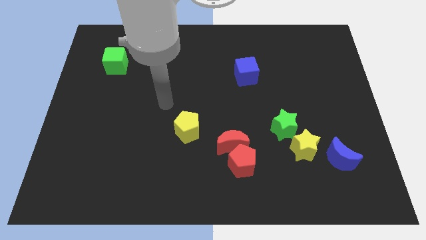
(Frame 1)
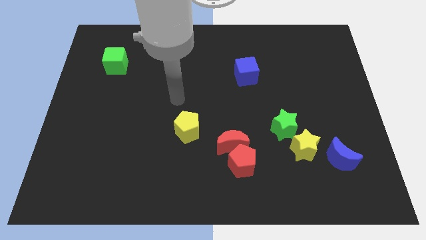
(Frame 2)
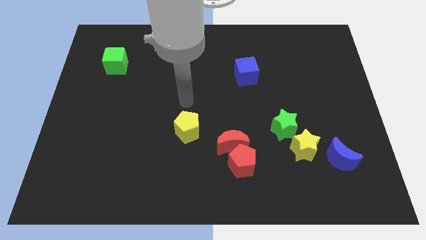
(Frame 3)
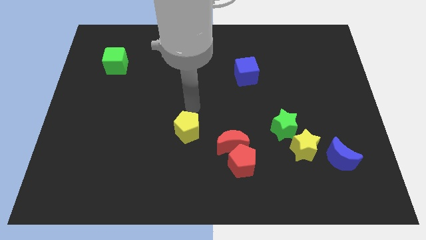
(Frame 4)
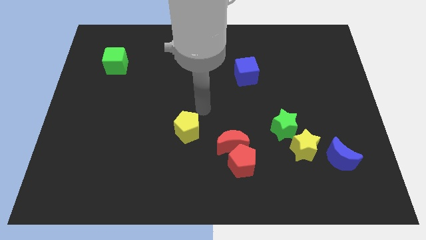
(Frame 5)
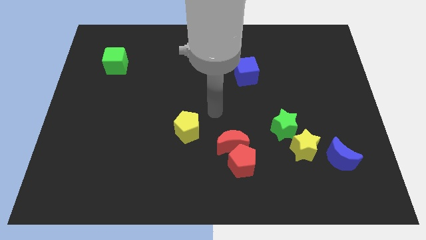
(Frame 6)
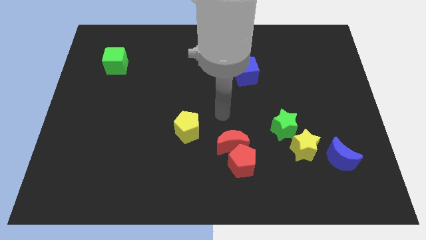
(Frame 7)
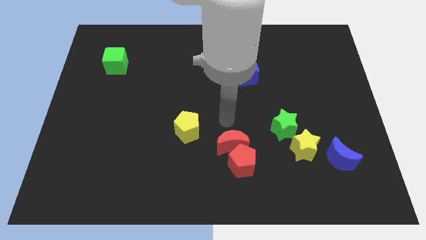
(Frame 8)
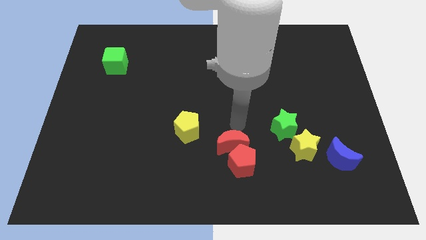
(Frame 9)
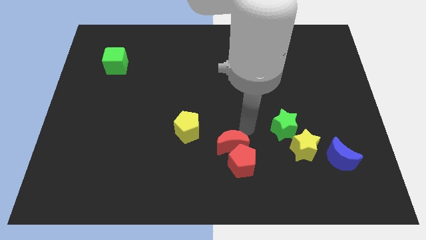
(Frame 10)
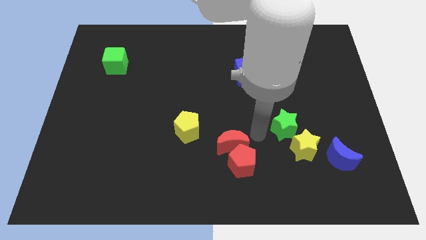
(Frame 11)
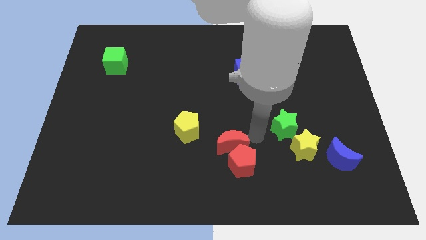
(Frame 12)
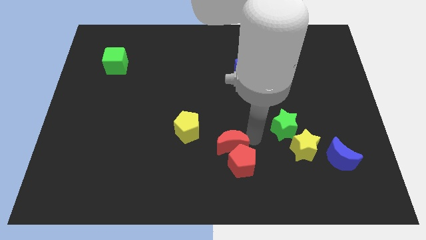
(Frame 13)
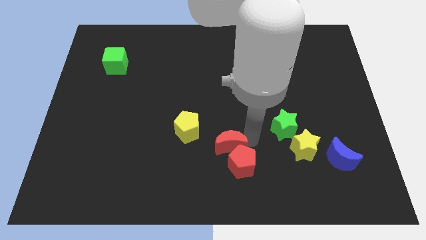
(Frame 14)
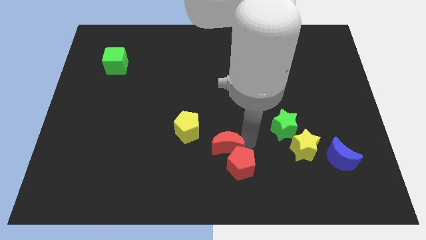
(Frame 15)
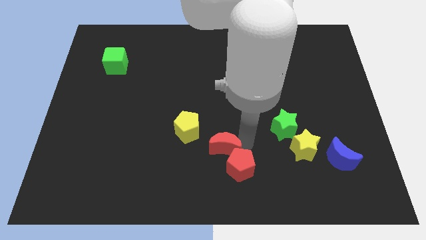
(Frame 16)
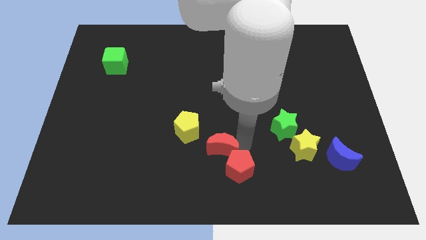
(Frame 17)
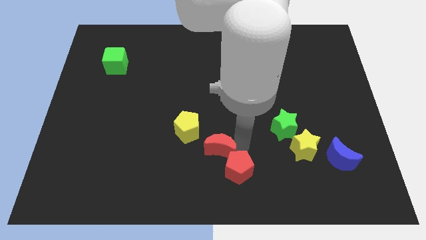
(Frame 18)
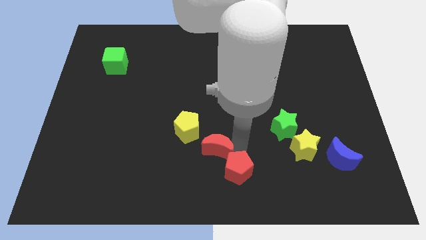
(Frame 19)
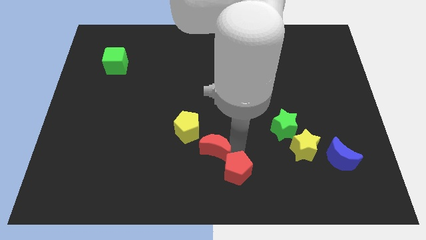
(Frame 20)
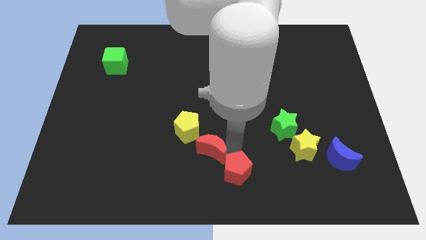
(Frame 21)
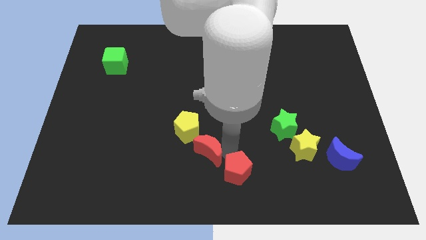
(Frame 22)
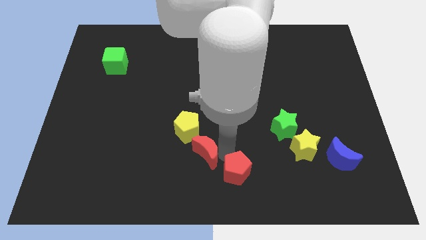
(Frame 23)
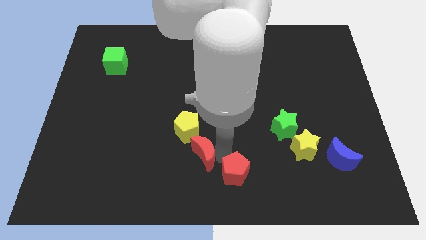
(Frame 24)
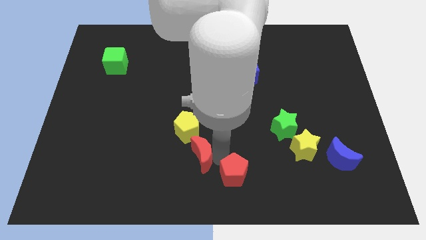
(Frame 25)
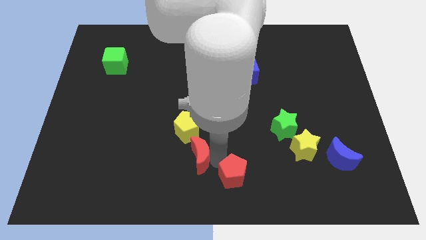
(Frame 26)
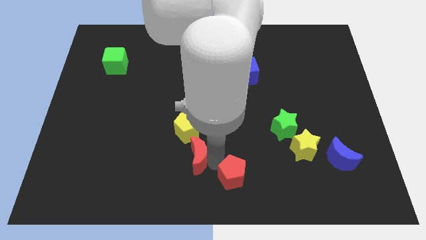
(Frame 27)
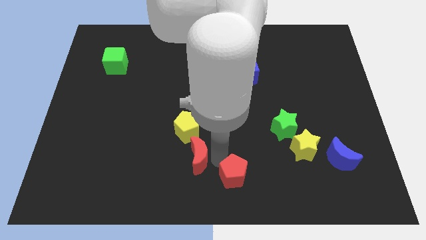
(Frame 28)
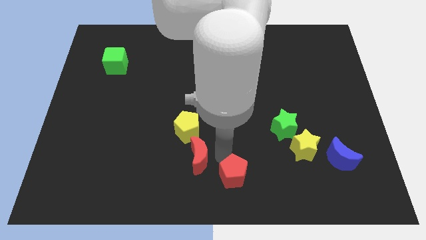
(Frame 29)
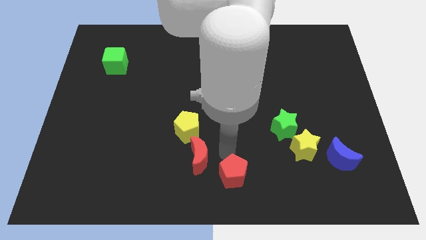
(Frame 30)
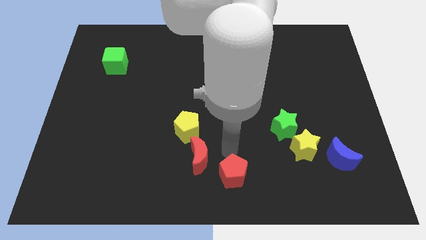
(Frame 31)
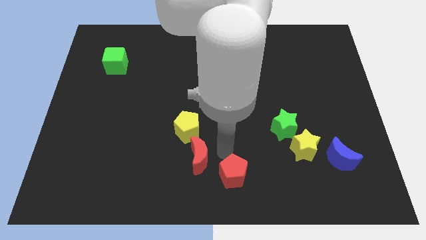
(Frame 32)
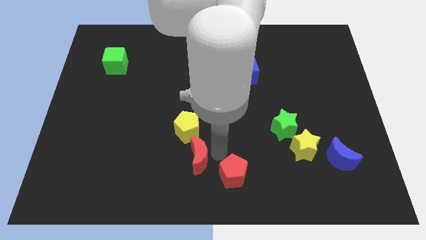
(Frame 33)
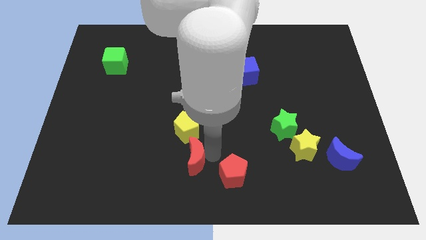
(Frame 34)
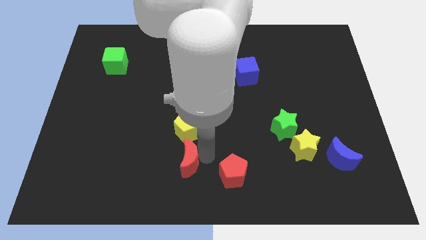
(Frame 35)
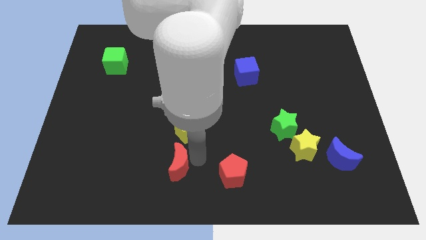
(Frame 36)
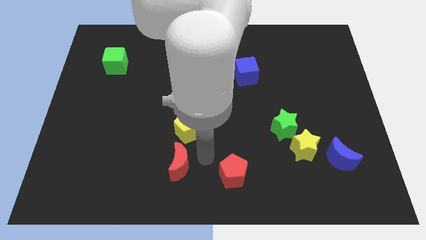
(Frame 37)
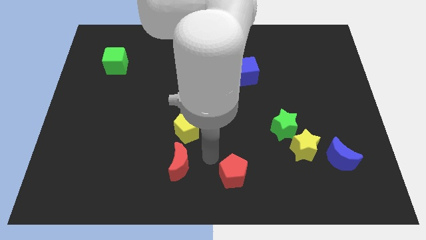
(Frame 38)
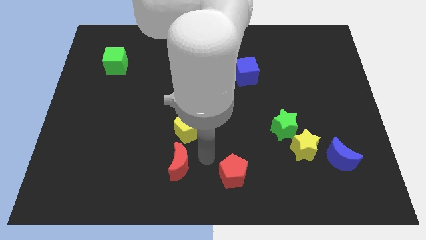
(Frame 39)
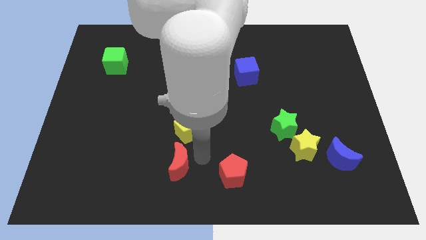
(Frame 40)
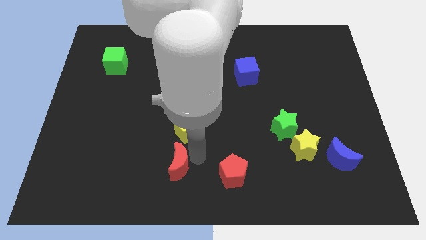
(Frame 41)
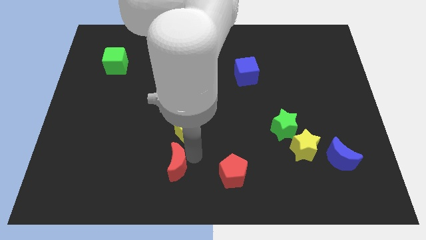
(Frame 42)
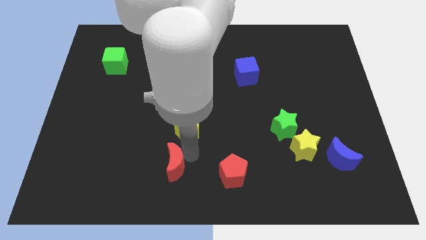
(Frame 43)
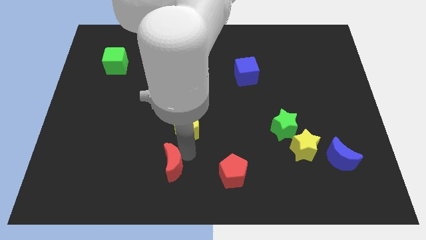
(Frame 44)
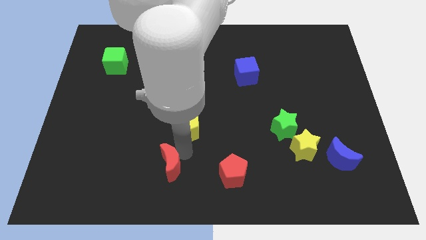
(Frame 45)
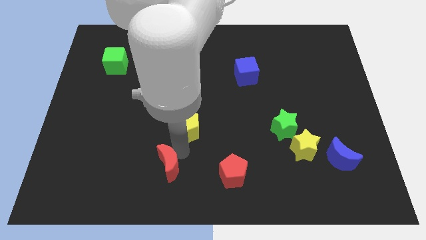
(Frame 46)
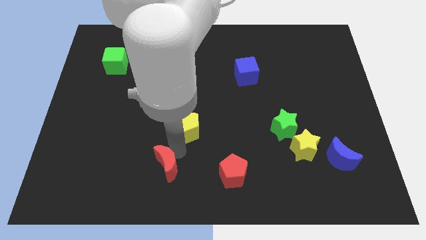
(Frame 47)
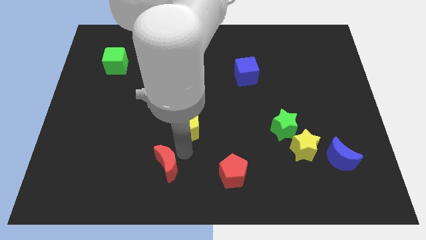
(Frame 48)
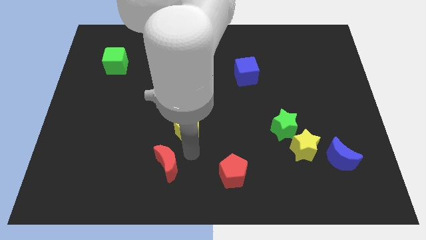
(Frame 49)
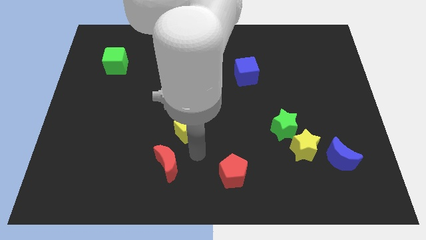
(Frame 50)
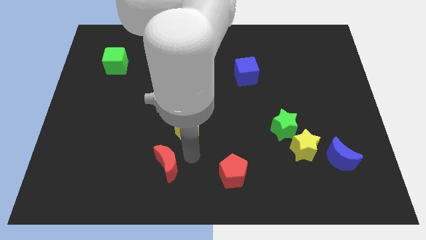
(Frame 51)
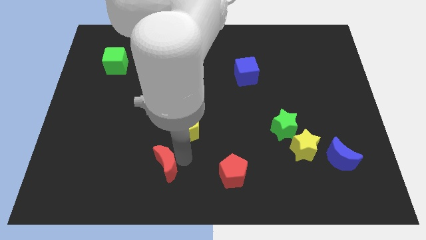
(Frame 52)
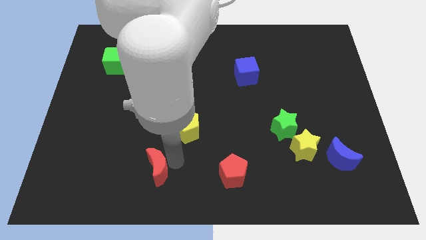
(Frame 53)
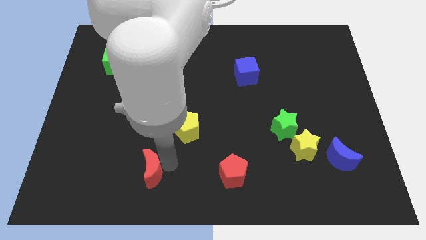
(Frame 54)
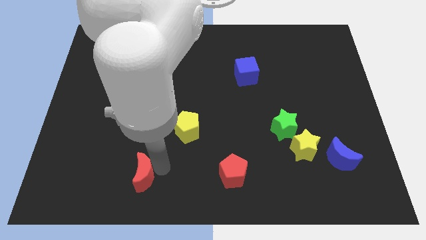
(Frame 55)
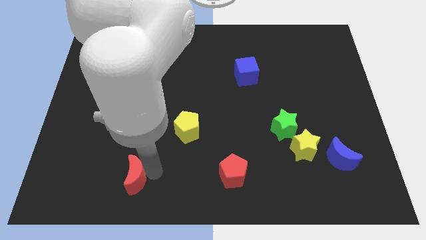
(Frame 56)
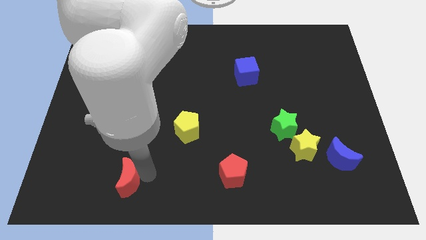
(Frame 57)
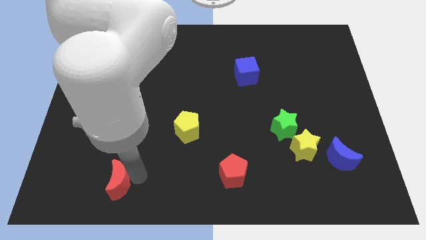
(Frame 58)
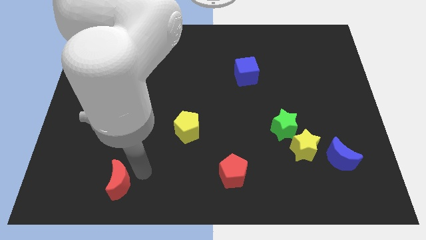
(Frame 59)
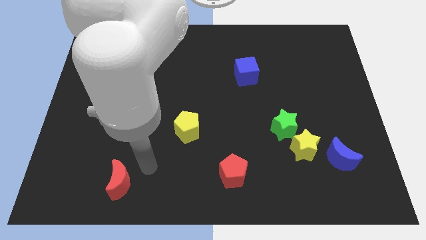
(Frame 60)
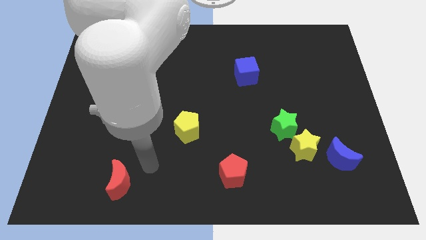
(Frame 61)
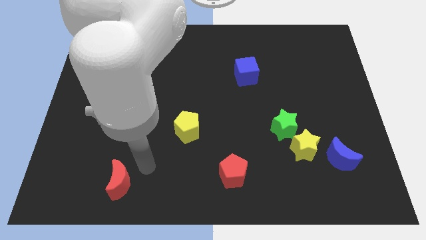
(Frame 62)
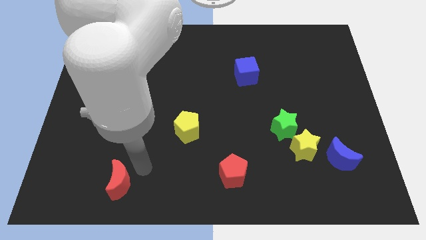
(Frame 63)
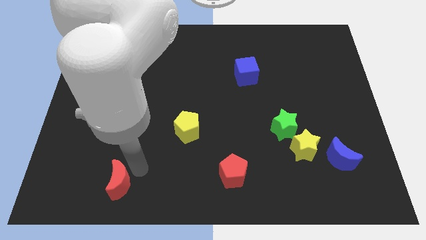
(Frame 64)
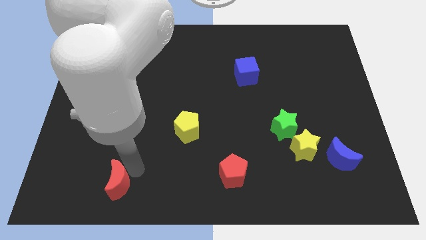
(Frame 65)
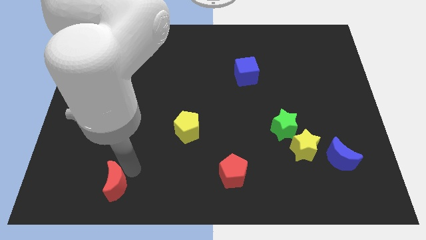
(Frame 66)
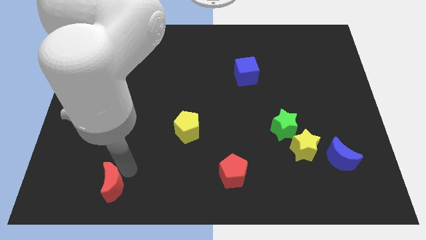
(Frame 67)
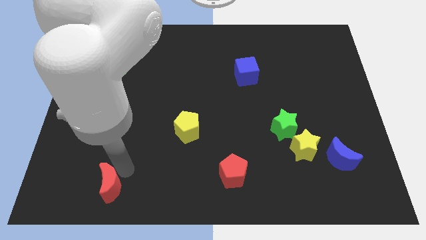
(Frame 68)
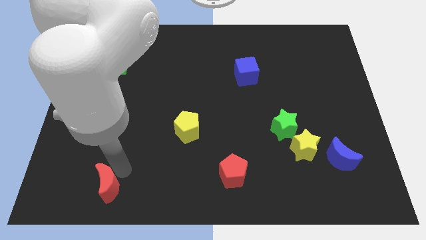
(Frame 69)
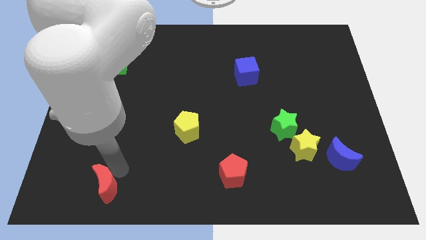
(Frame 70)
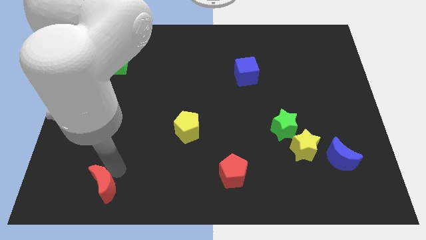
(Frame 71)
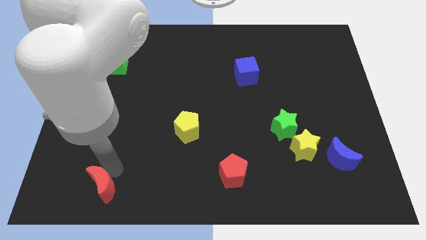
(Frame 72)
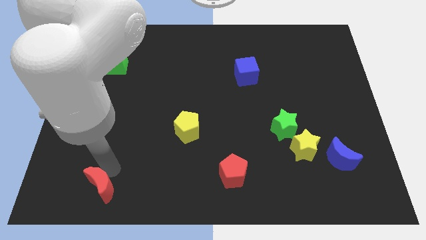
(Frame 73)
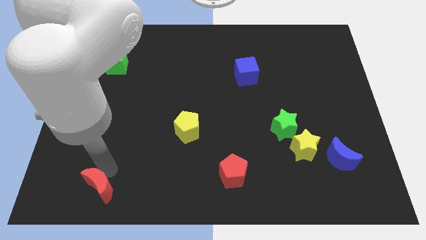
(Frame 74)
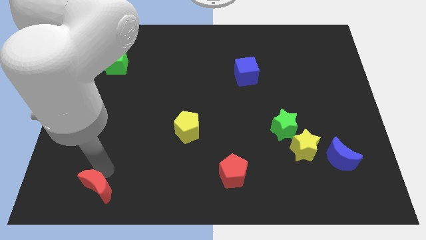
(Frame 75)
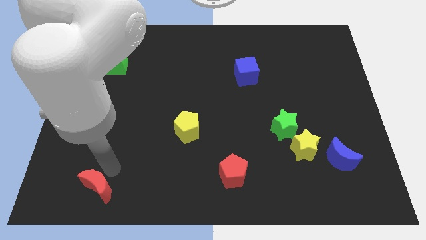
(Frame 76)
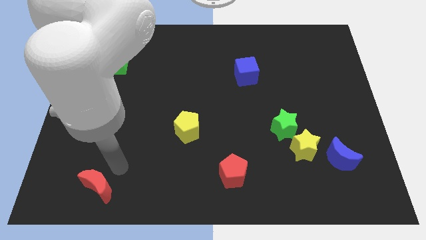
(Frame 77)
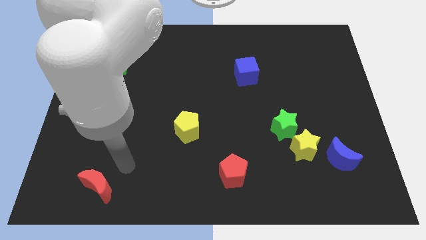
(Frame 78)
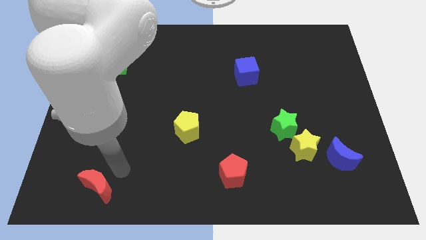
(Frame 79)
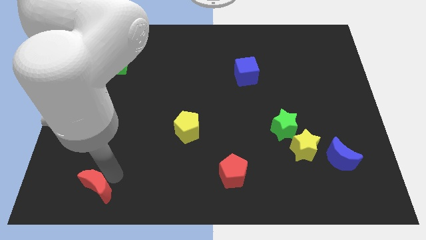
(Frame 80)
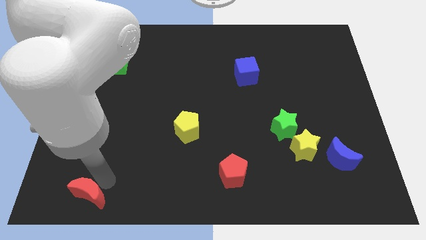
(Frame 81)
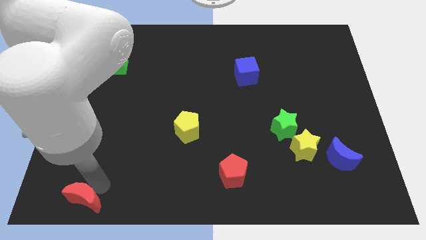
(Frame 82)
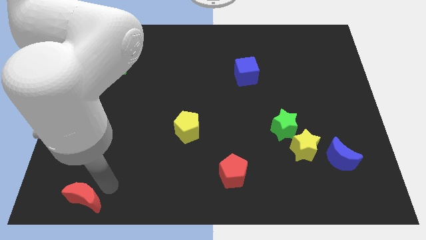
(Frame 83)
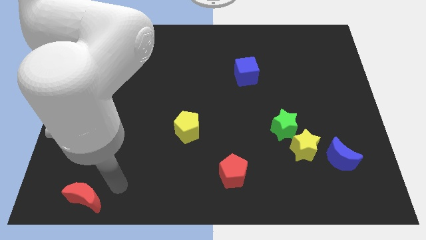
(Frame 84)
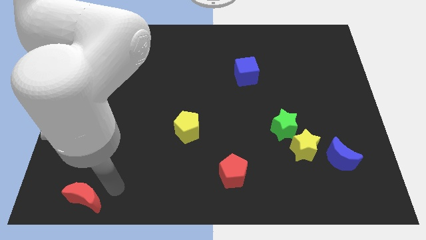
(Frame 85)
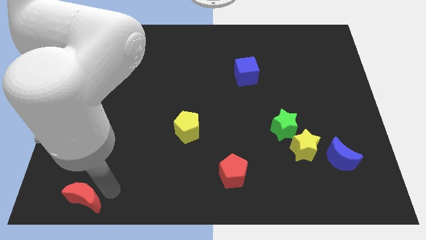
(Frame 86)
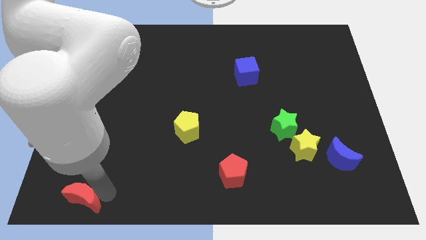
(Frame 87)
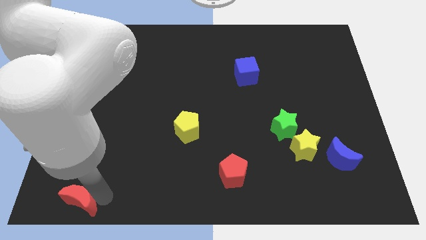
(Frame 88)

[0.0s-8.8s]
move the red moon to the lower left corner
